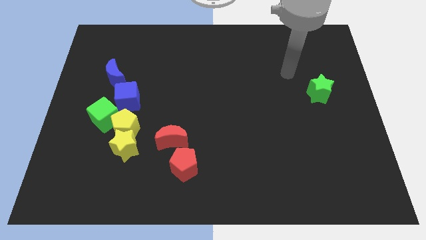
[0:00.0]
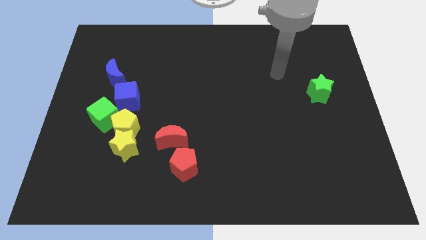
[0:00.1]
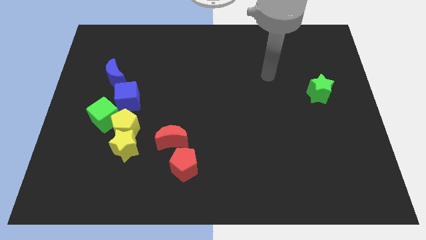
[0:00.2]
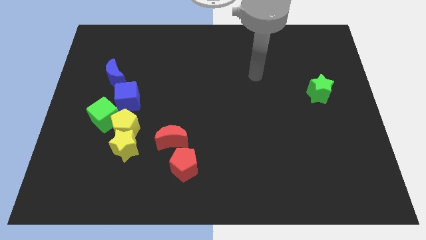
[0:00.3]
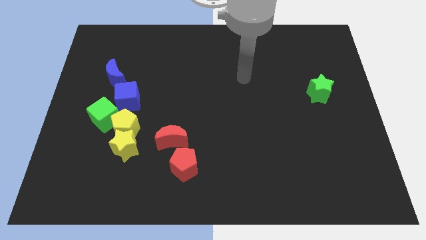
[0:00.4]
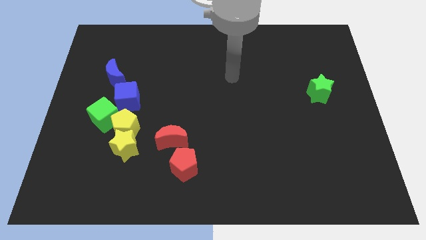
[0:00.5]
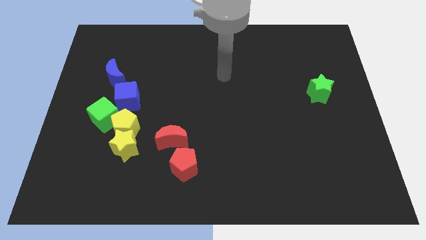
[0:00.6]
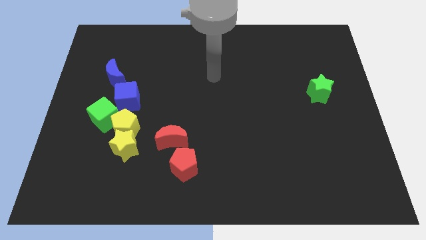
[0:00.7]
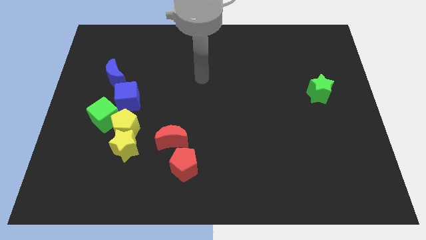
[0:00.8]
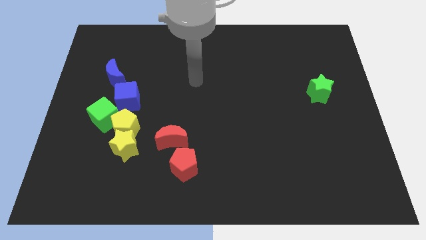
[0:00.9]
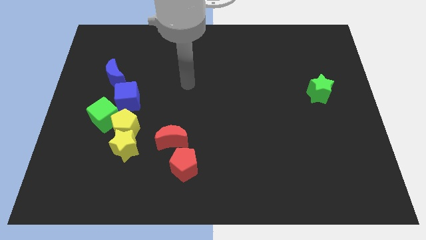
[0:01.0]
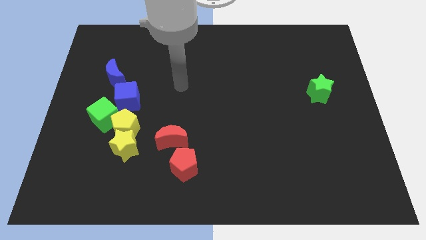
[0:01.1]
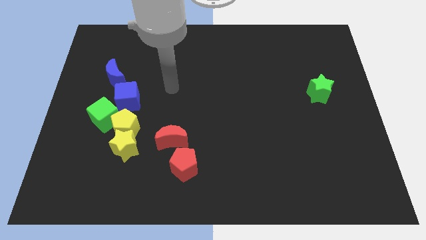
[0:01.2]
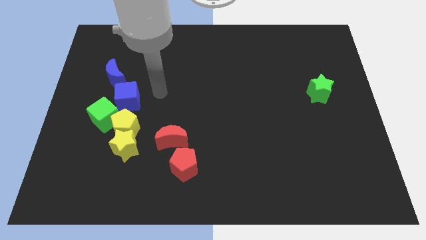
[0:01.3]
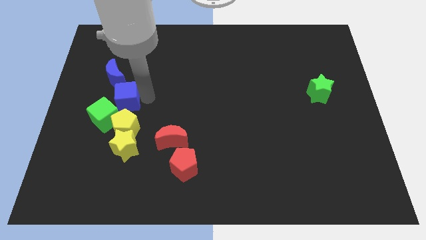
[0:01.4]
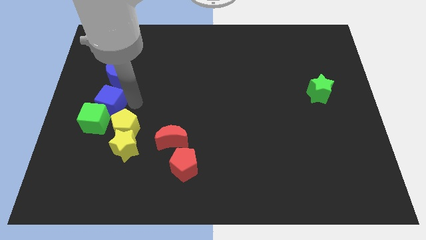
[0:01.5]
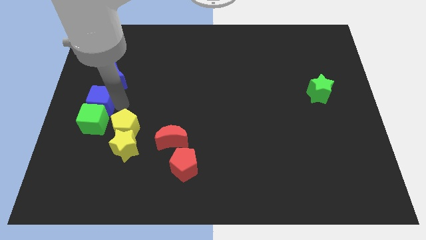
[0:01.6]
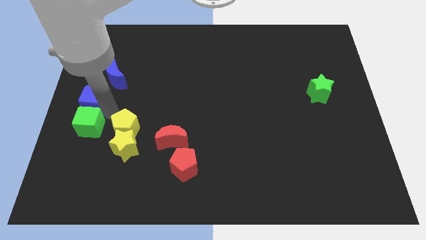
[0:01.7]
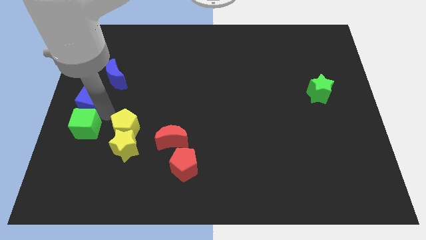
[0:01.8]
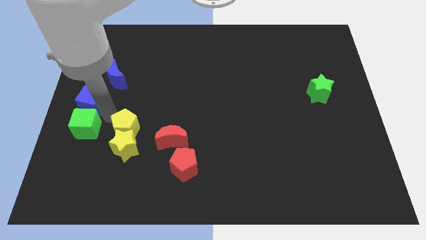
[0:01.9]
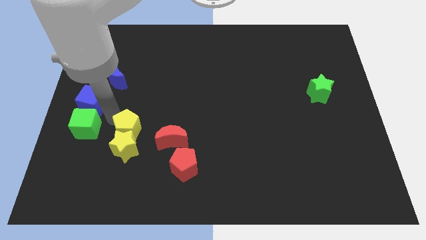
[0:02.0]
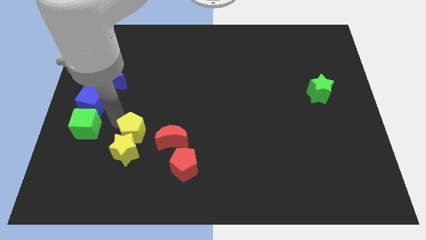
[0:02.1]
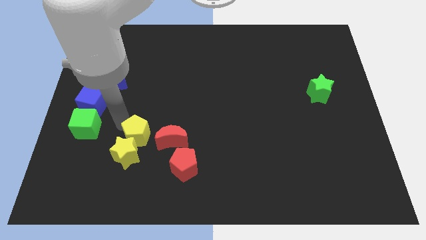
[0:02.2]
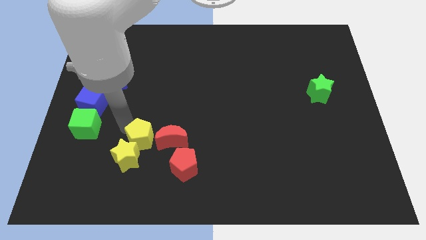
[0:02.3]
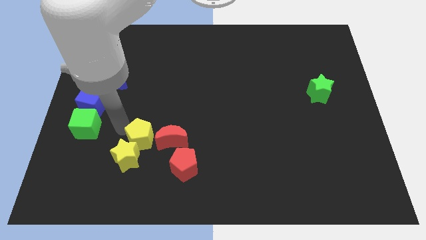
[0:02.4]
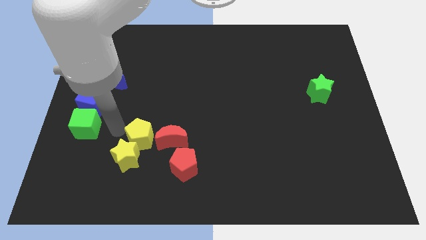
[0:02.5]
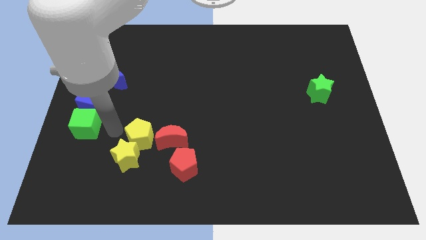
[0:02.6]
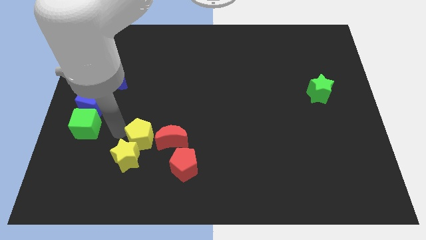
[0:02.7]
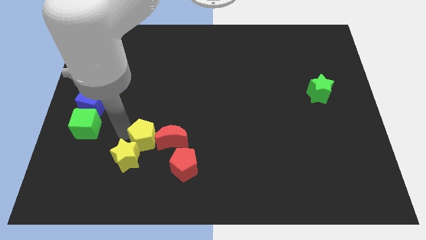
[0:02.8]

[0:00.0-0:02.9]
separate the yellow pentagon from the group

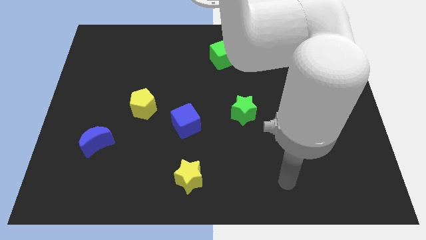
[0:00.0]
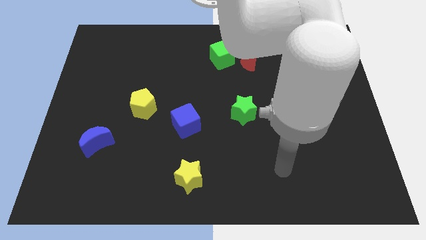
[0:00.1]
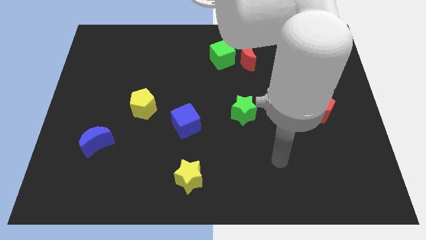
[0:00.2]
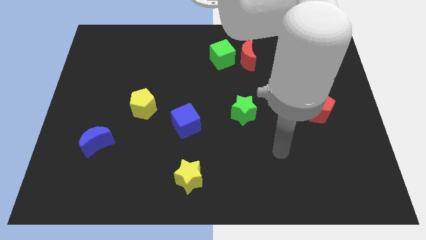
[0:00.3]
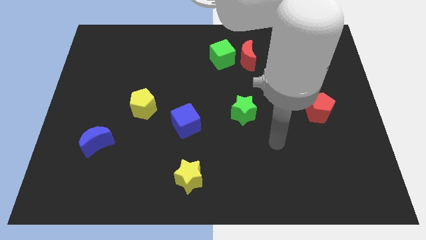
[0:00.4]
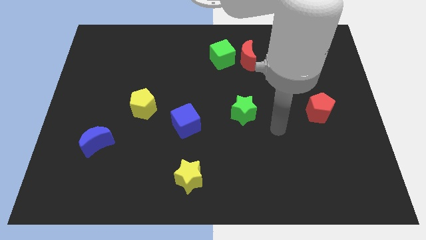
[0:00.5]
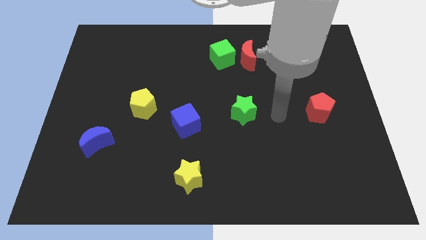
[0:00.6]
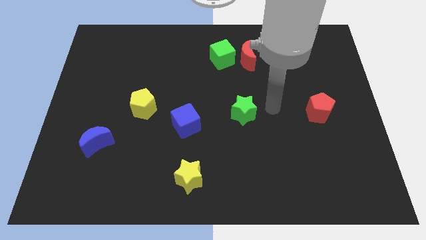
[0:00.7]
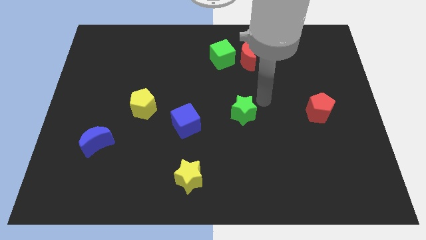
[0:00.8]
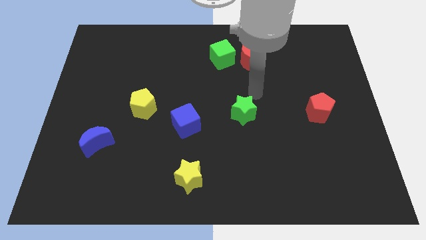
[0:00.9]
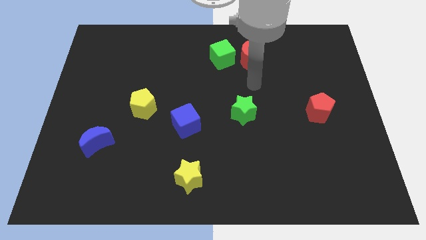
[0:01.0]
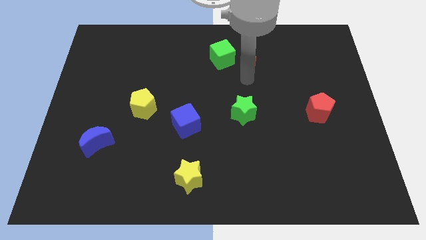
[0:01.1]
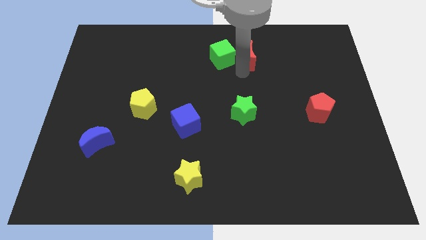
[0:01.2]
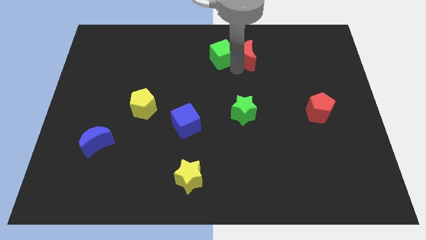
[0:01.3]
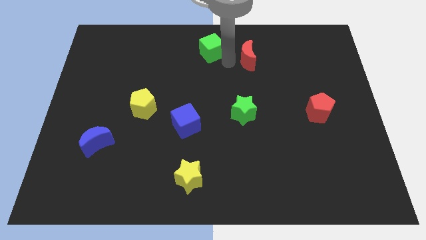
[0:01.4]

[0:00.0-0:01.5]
move the red moon away from the green cube

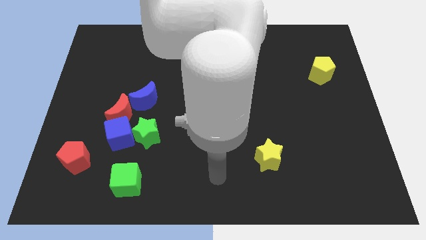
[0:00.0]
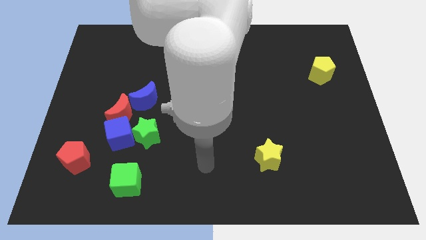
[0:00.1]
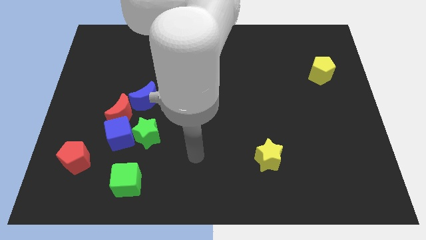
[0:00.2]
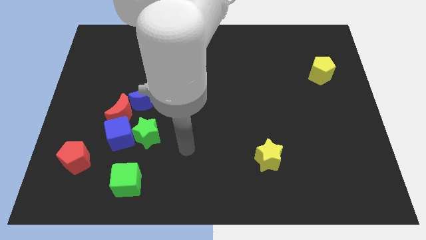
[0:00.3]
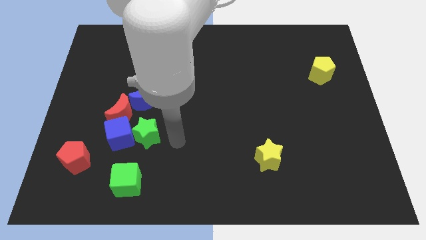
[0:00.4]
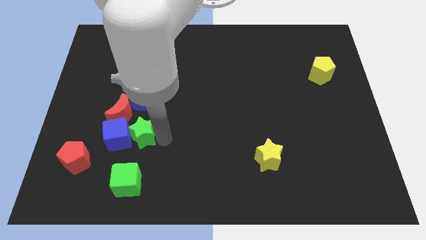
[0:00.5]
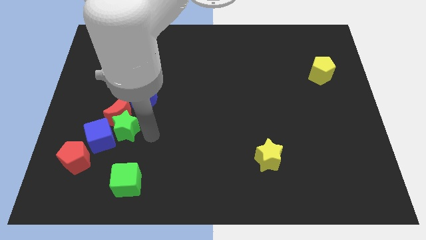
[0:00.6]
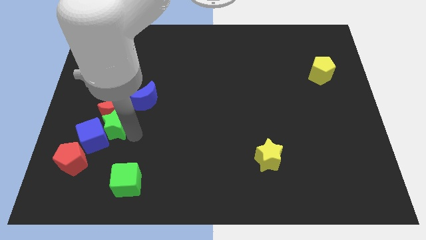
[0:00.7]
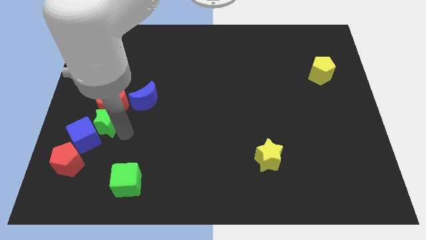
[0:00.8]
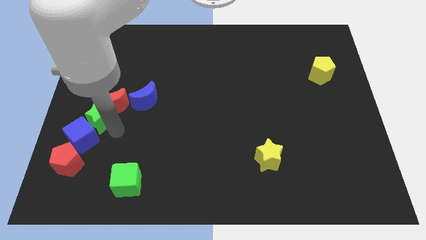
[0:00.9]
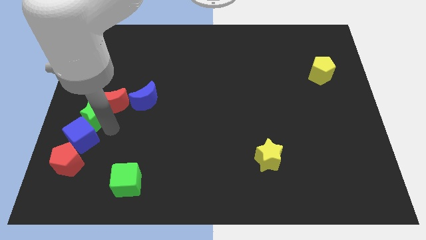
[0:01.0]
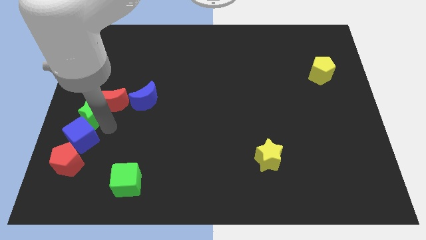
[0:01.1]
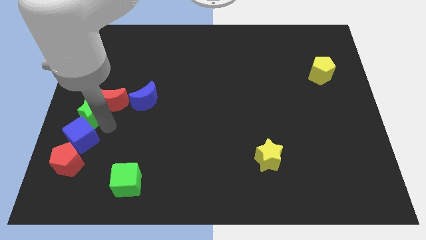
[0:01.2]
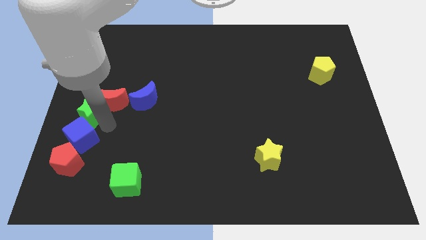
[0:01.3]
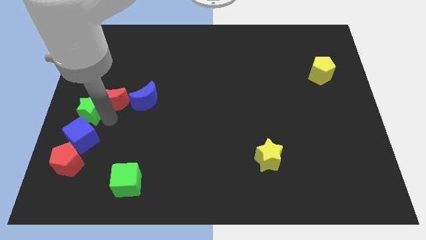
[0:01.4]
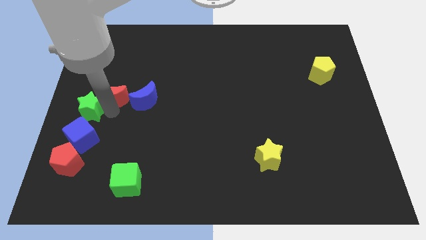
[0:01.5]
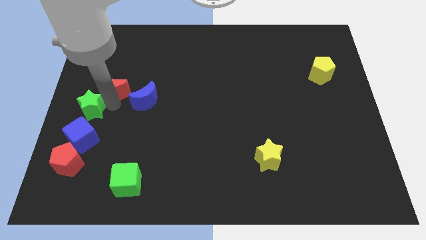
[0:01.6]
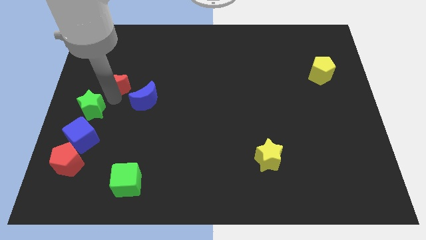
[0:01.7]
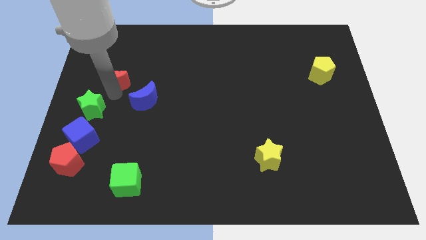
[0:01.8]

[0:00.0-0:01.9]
pull the red moon apart from the blue cube, blue moon, and green star

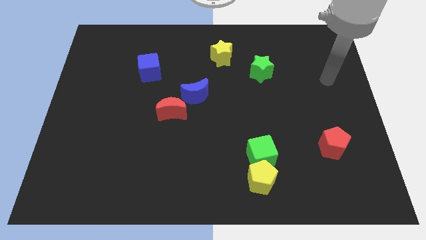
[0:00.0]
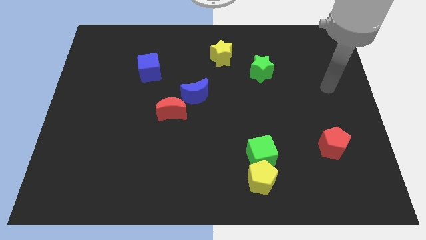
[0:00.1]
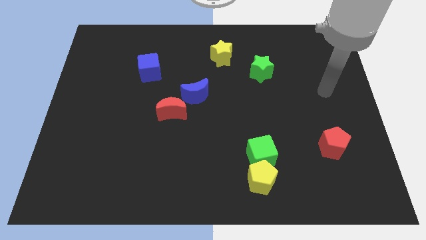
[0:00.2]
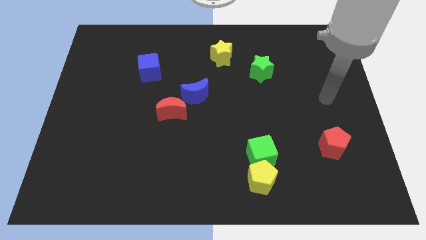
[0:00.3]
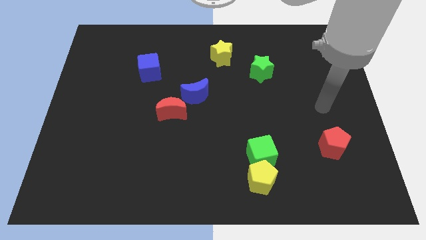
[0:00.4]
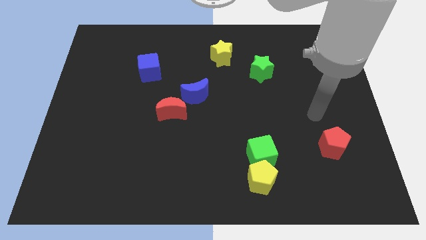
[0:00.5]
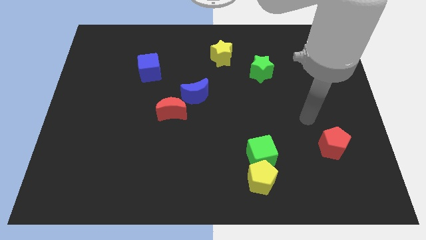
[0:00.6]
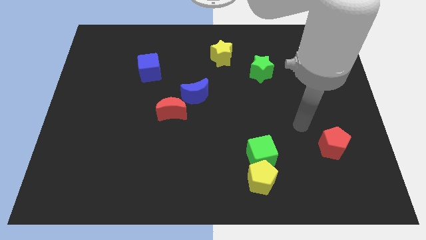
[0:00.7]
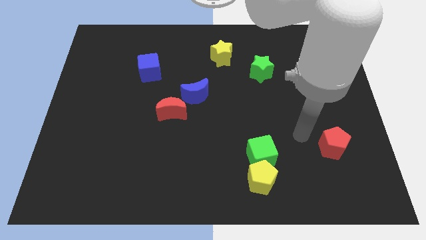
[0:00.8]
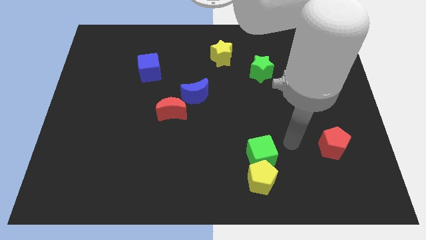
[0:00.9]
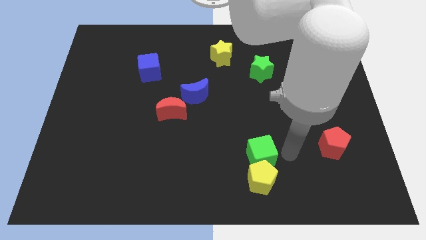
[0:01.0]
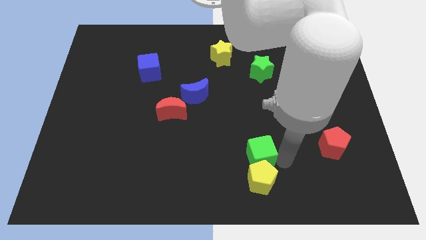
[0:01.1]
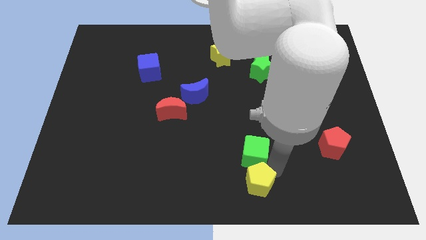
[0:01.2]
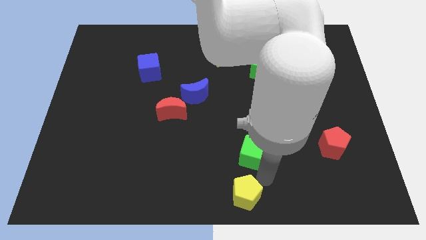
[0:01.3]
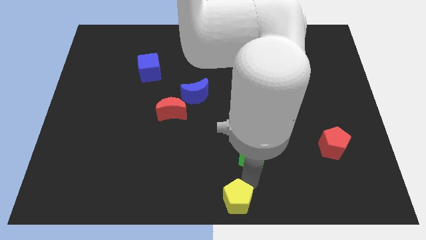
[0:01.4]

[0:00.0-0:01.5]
move the green cube away from the yellow pentagon

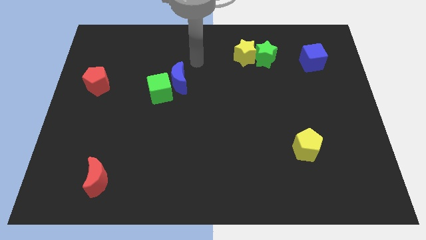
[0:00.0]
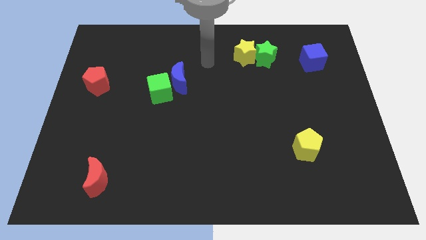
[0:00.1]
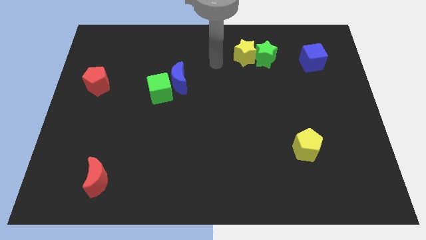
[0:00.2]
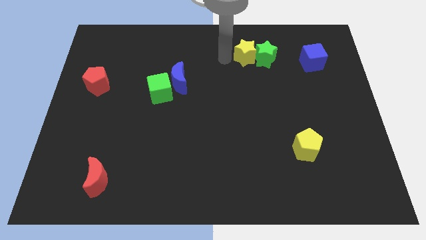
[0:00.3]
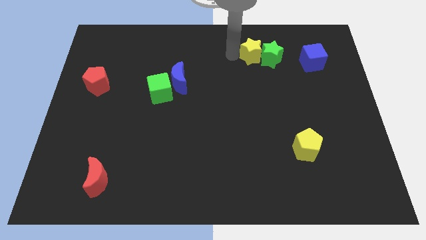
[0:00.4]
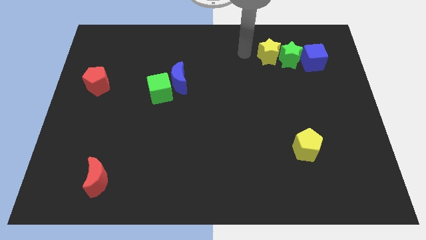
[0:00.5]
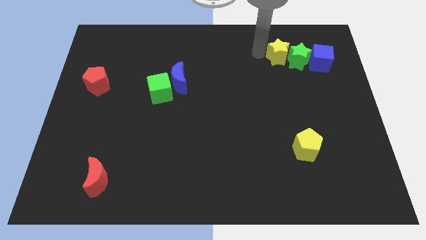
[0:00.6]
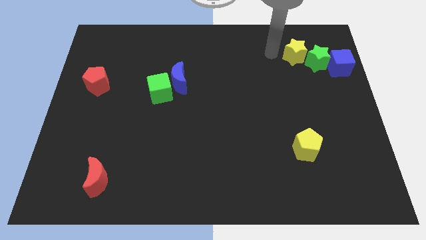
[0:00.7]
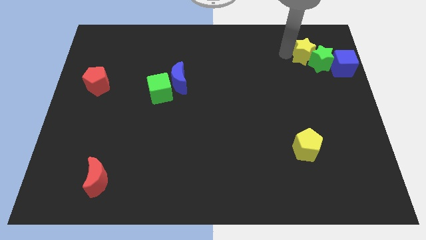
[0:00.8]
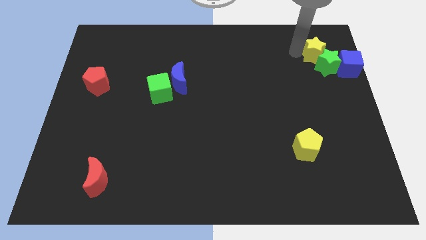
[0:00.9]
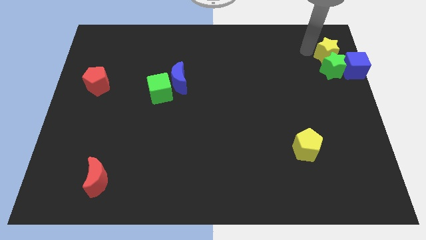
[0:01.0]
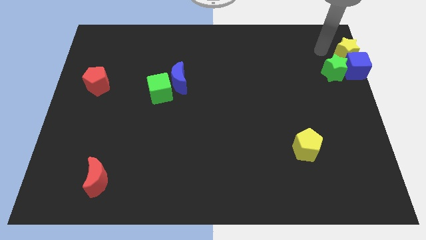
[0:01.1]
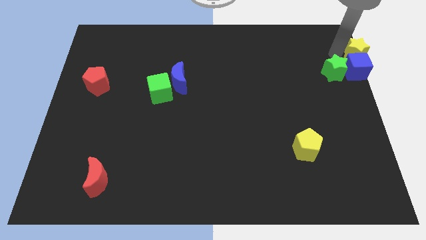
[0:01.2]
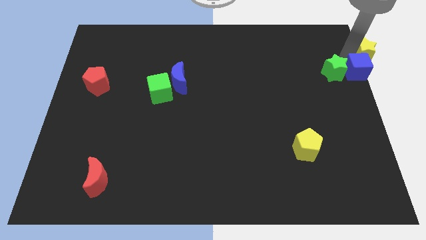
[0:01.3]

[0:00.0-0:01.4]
move the green star away from the yellow star
